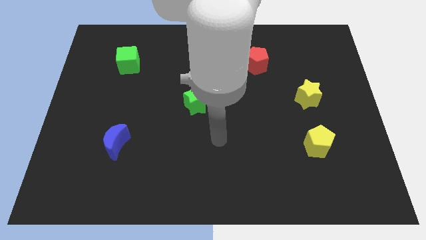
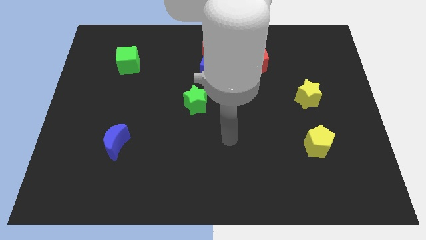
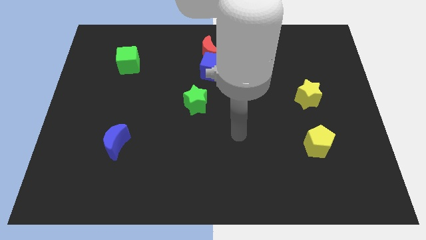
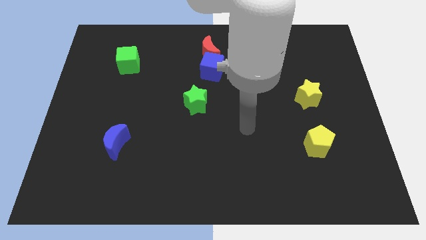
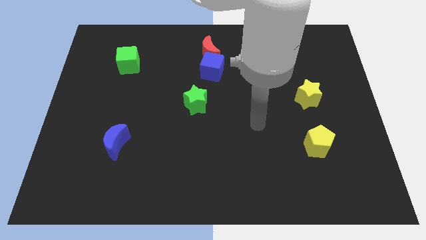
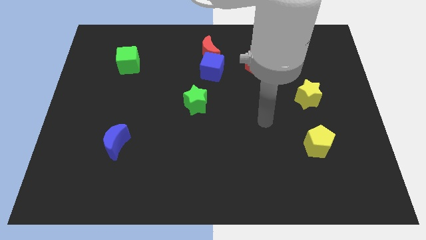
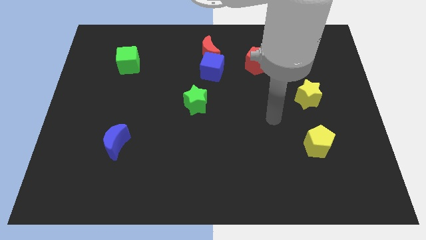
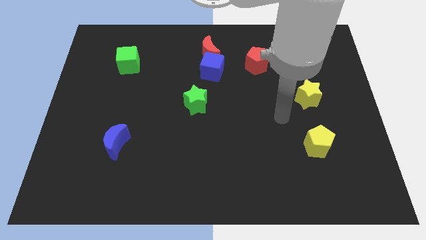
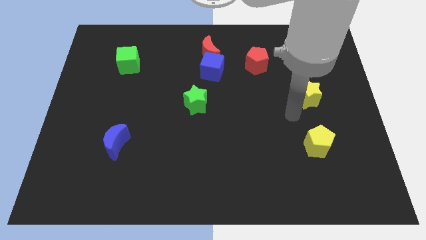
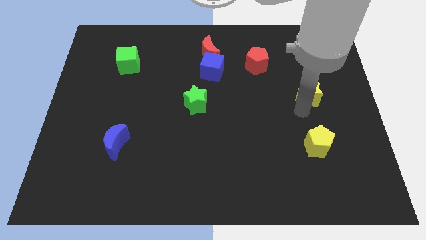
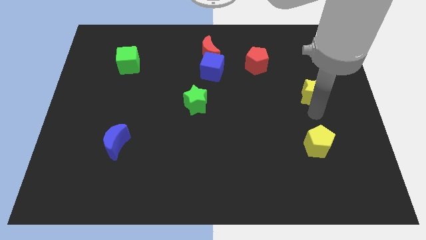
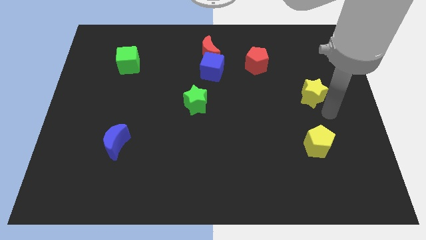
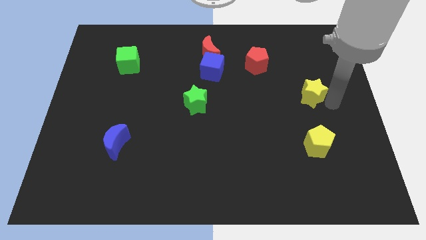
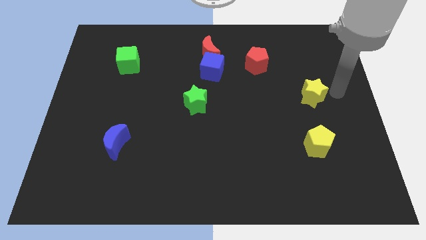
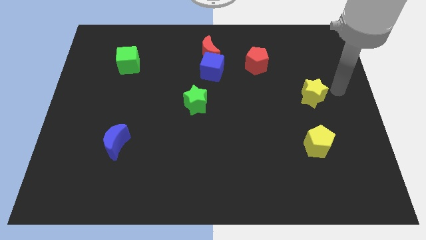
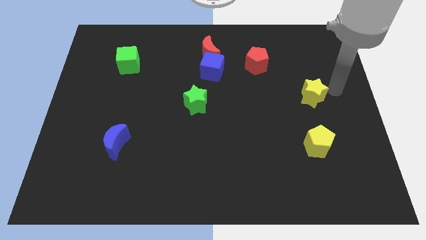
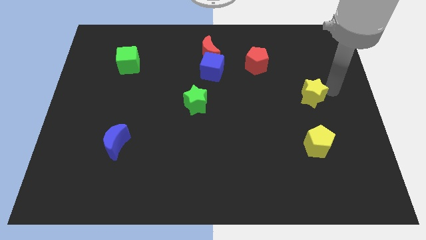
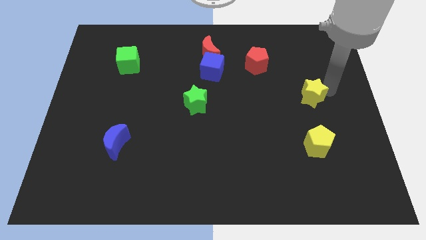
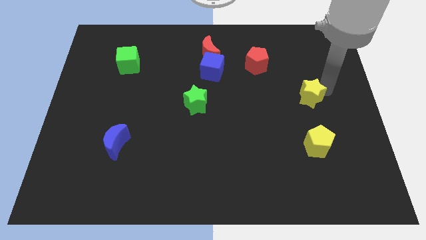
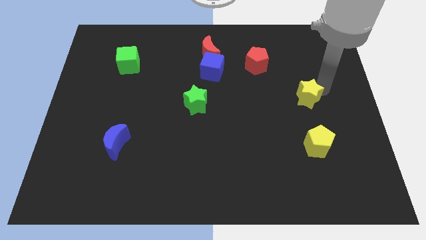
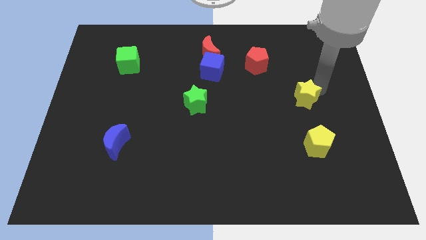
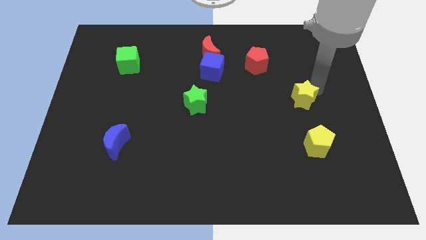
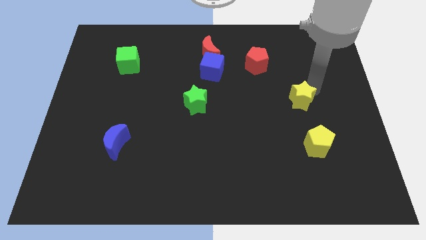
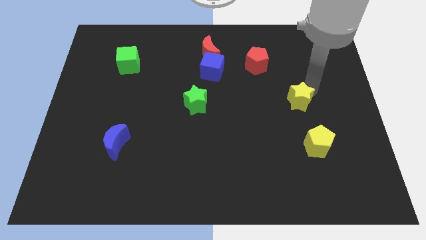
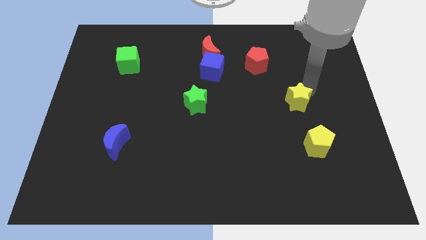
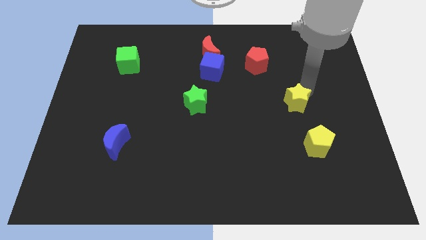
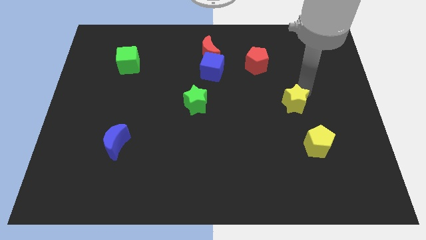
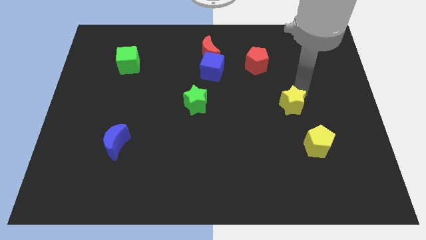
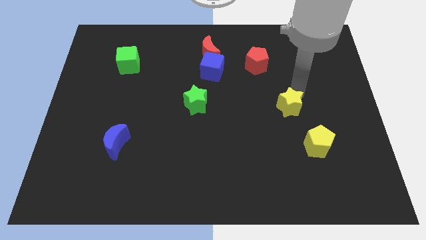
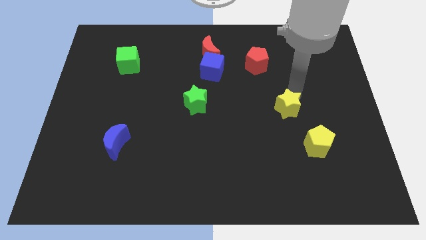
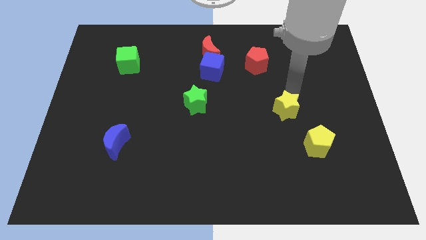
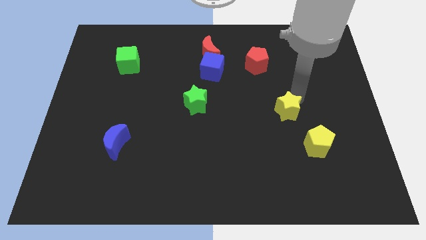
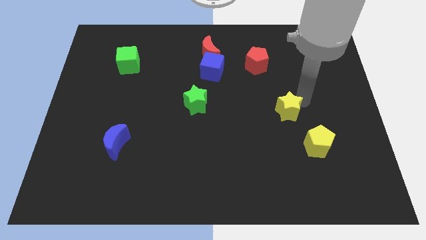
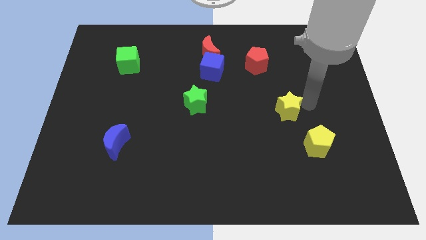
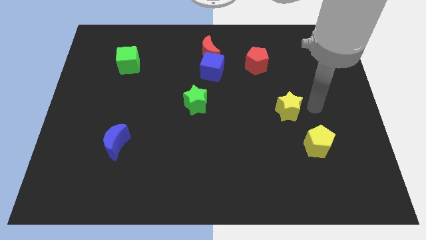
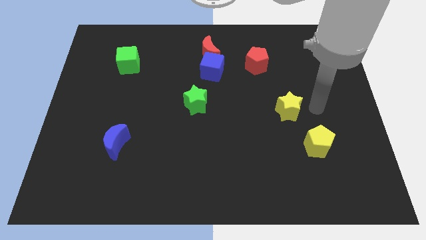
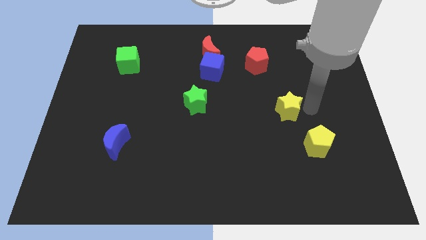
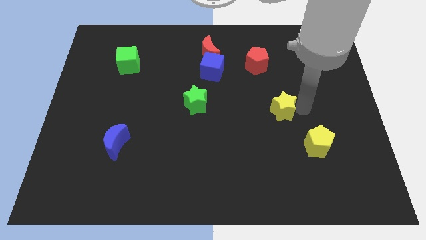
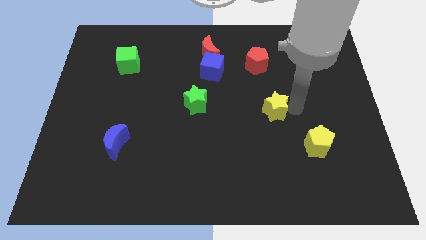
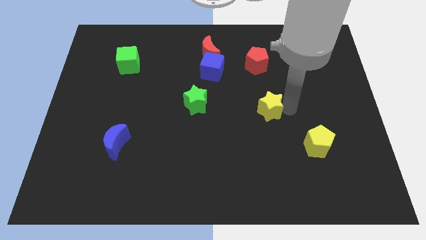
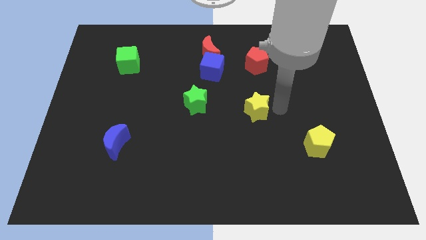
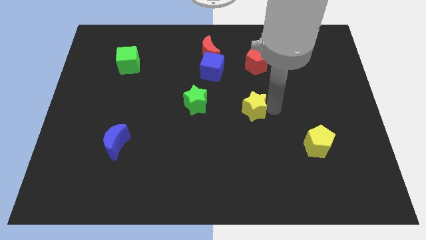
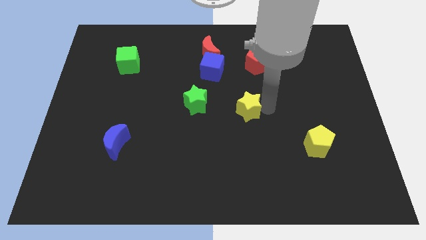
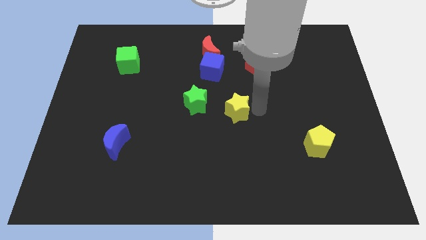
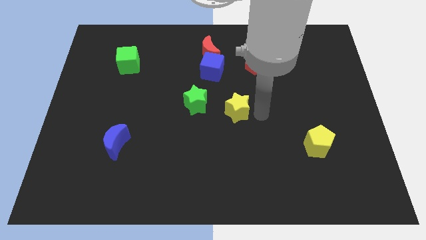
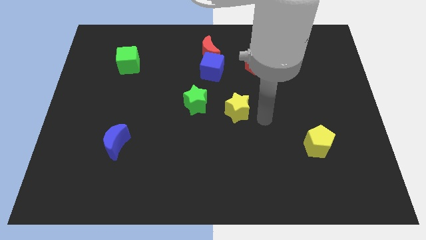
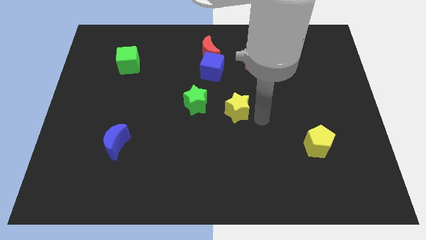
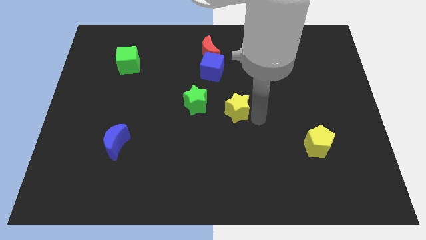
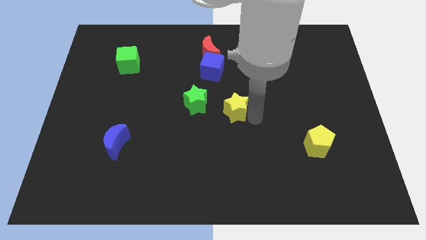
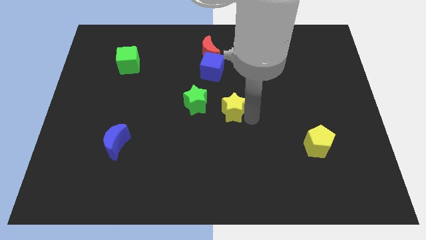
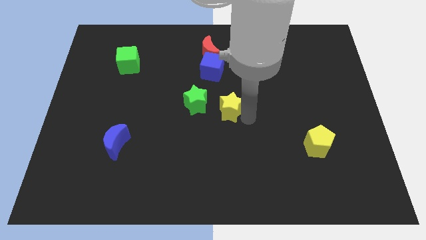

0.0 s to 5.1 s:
put the yellow star to the bottom of the blue cube

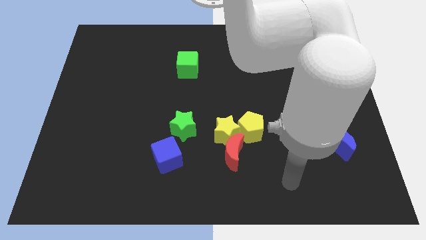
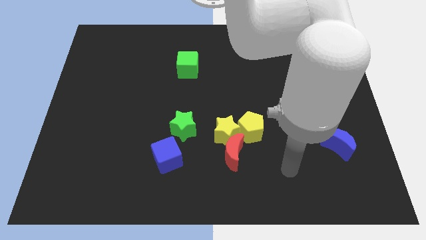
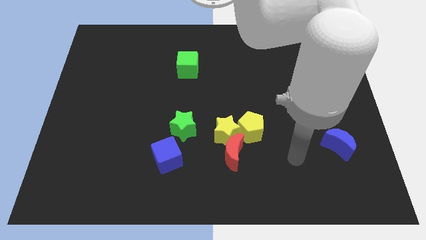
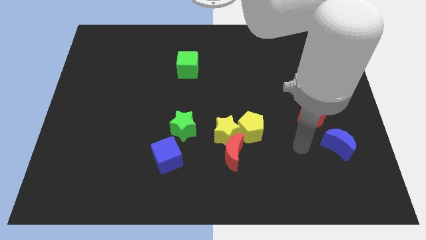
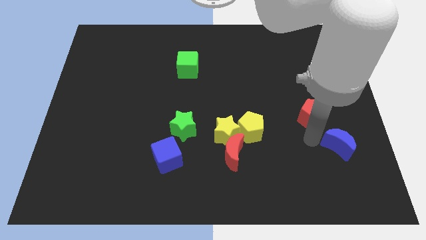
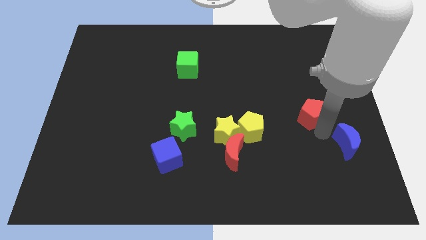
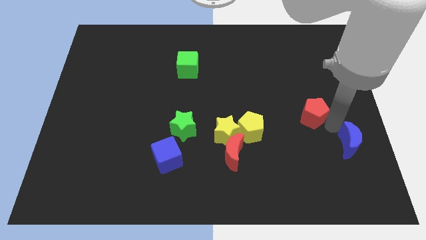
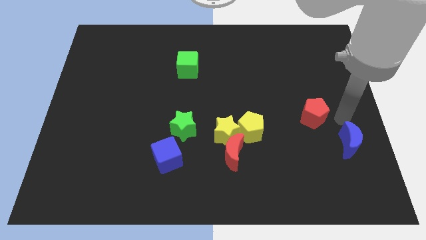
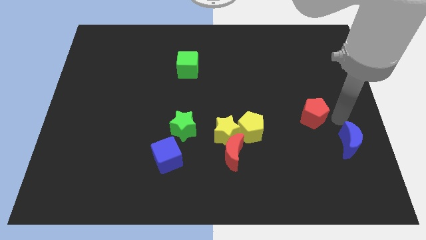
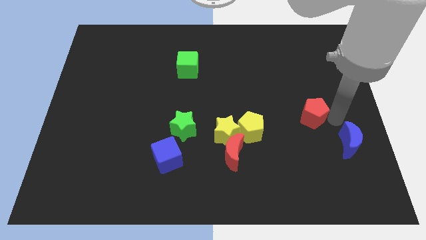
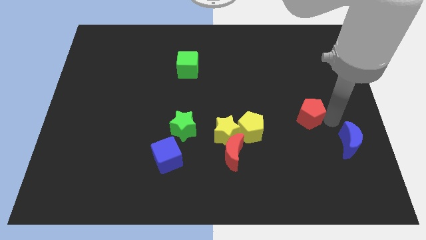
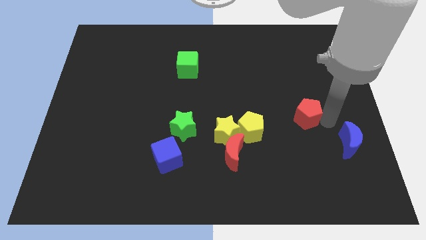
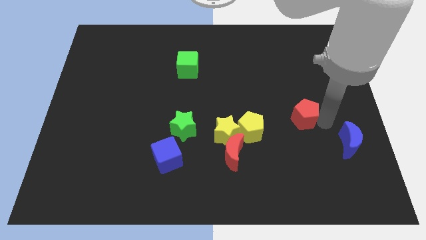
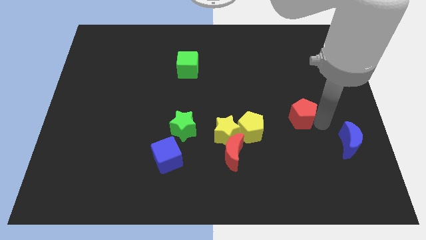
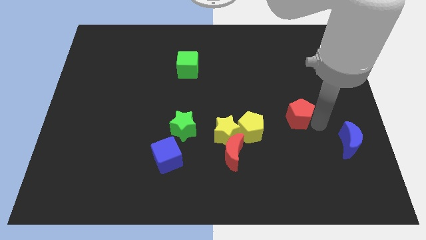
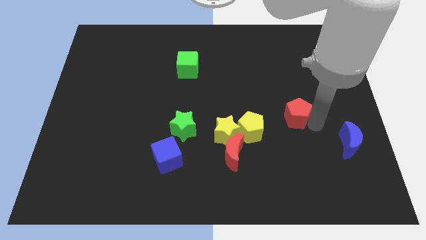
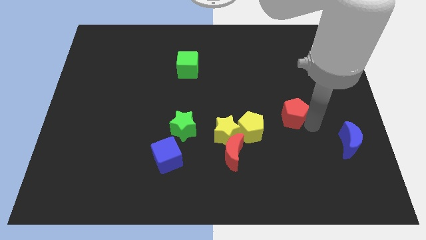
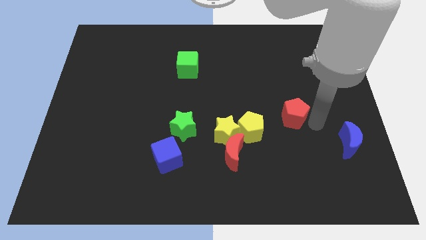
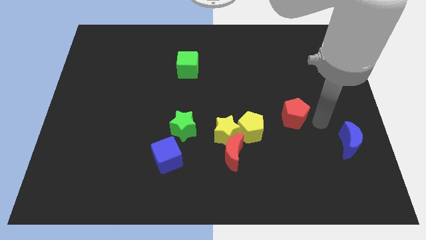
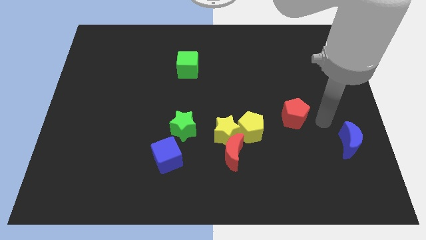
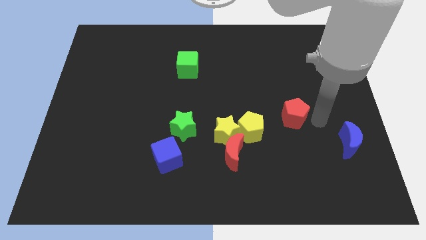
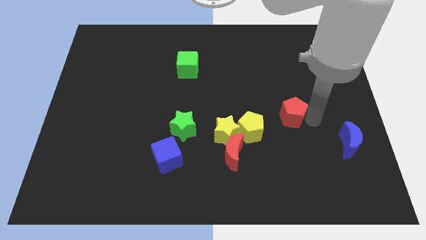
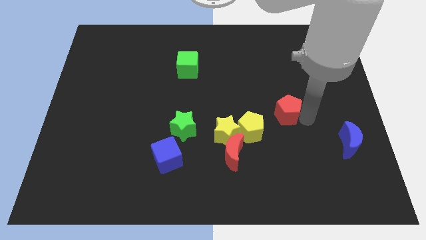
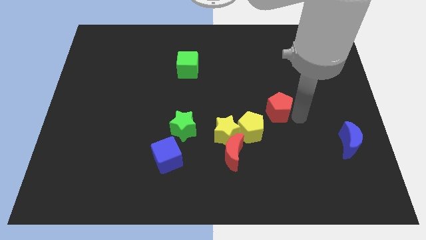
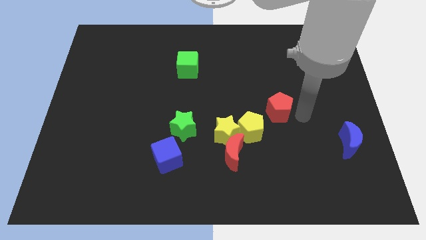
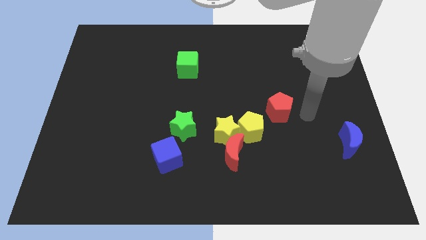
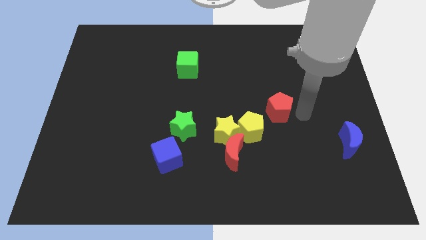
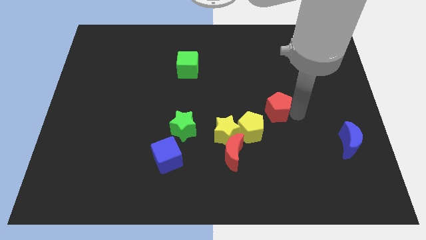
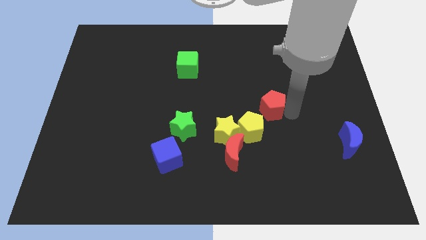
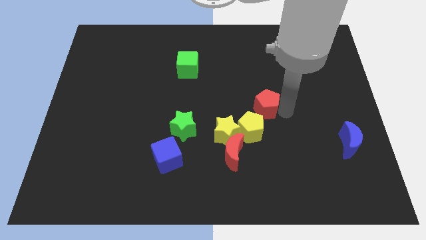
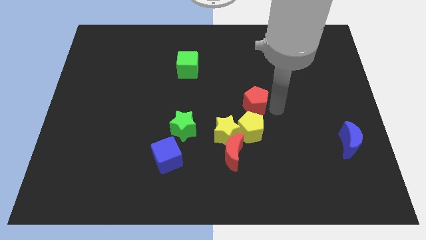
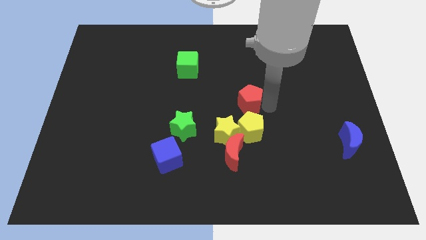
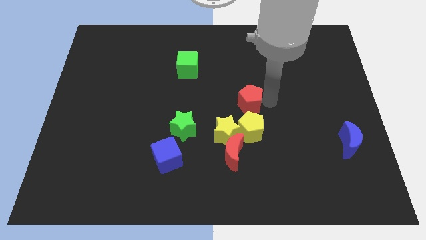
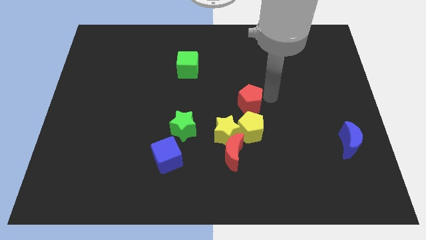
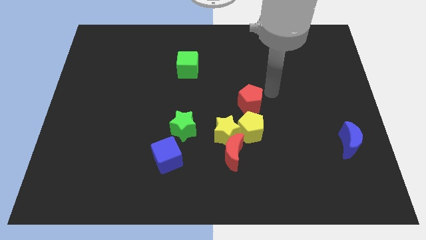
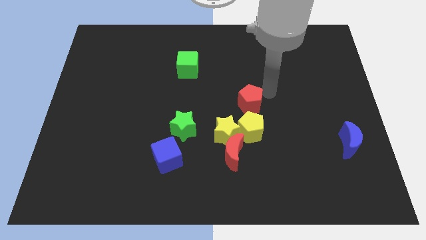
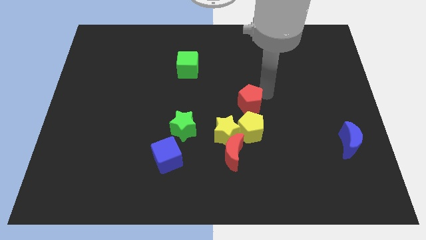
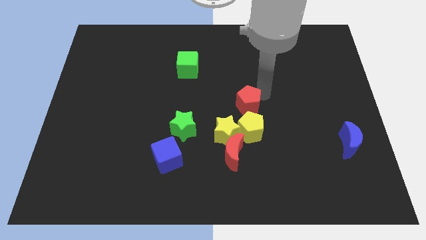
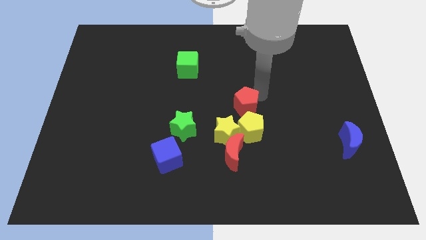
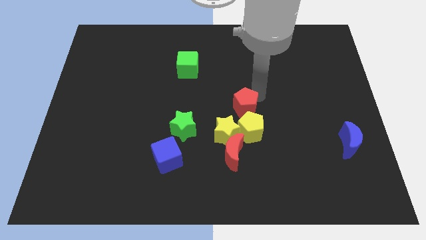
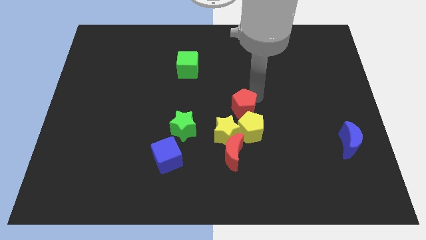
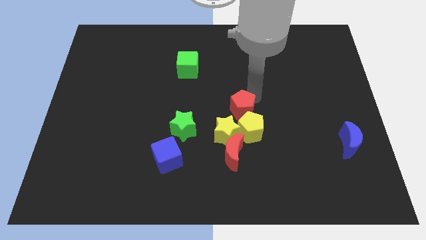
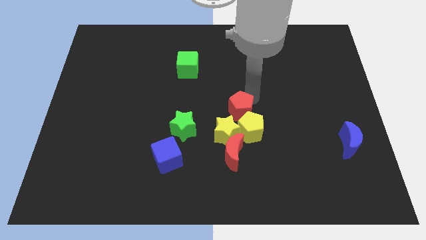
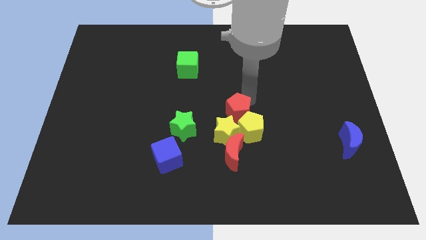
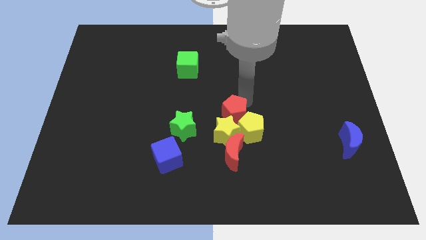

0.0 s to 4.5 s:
put the red pentagon left of the yellow pentagon
